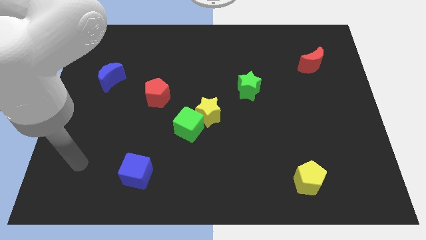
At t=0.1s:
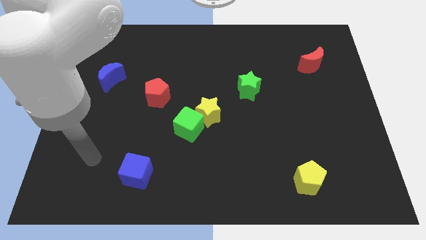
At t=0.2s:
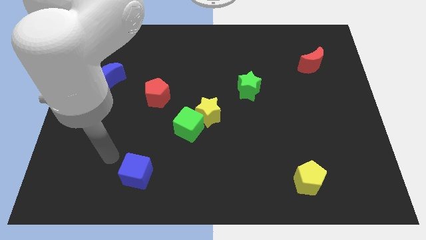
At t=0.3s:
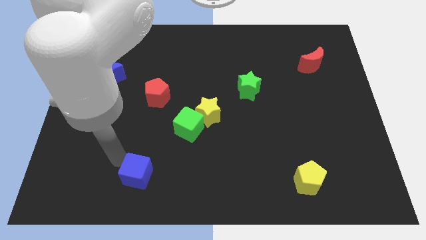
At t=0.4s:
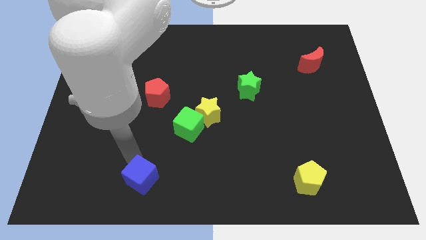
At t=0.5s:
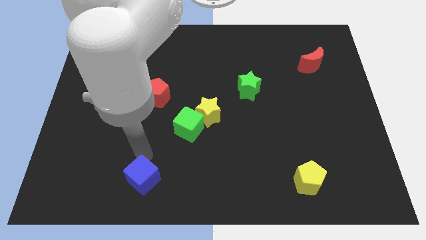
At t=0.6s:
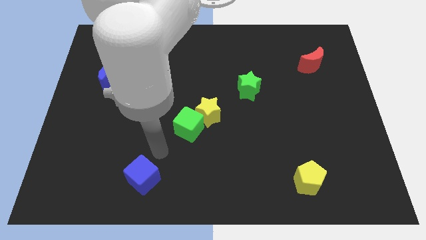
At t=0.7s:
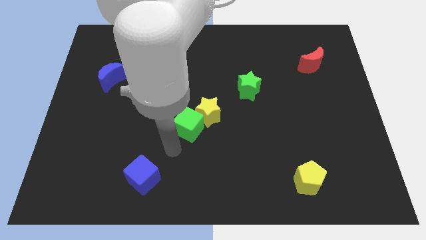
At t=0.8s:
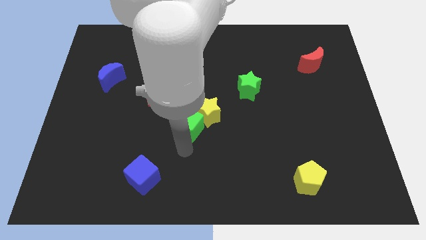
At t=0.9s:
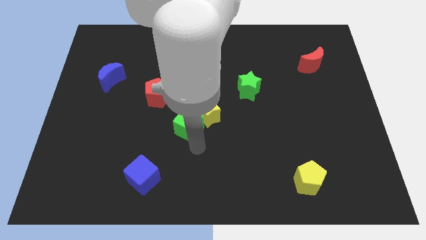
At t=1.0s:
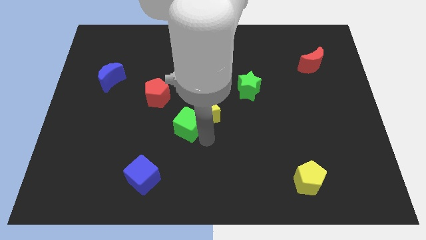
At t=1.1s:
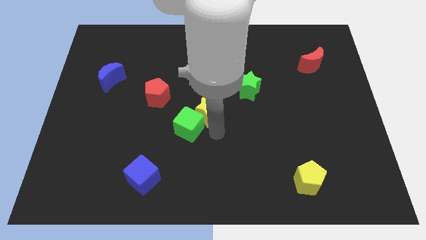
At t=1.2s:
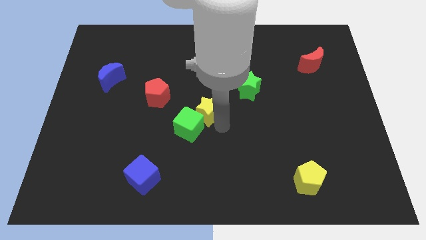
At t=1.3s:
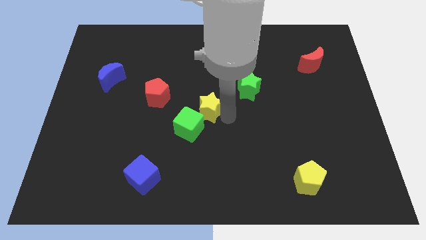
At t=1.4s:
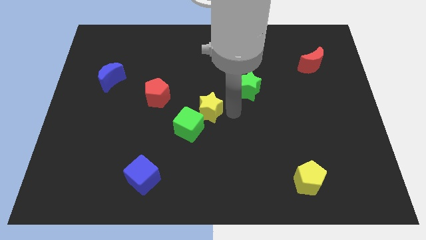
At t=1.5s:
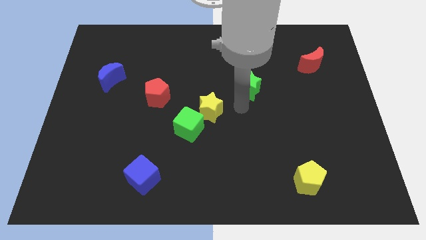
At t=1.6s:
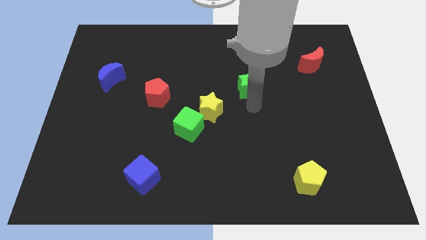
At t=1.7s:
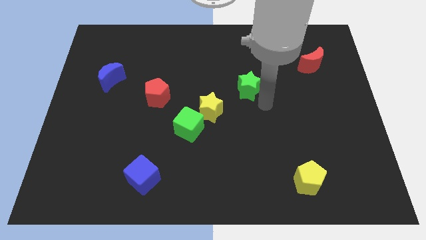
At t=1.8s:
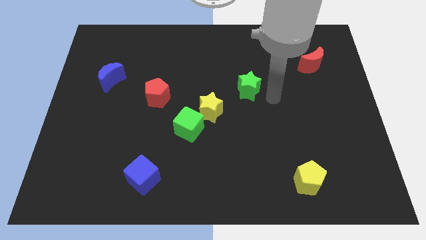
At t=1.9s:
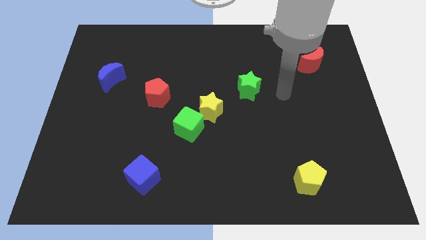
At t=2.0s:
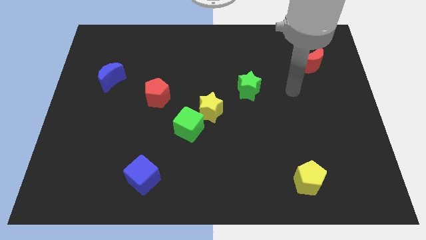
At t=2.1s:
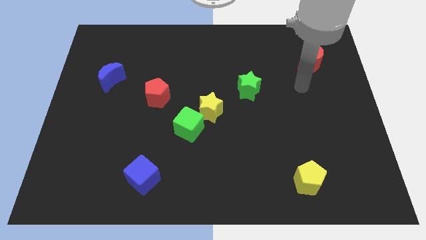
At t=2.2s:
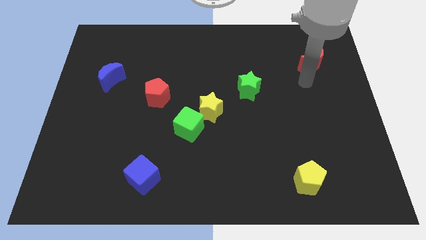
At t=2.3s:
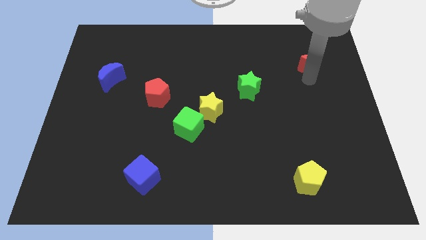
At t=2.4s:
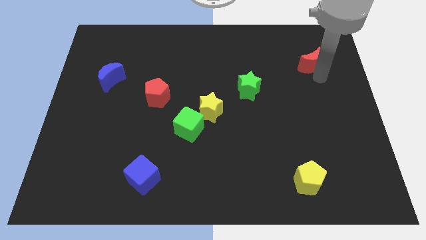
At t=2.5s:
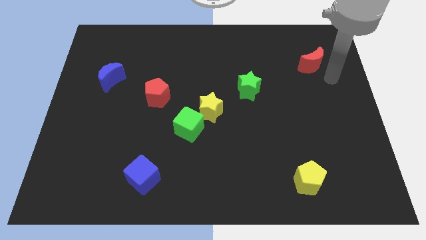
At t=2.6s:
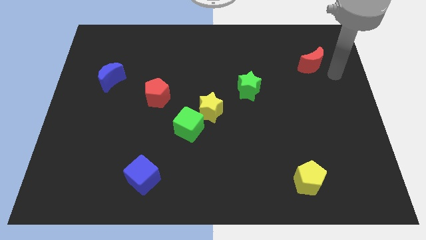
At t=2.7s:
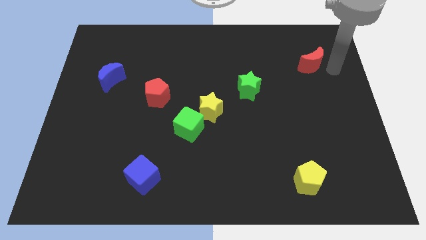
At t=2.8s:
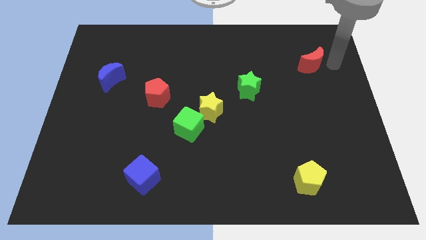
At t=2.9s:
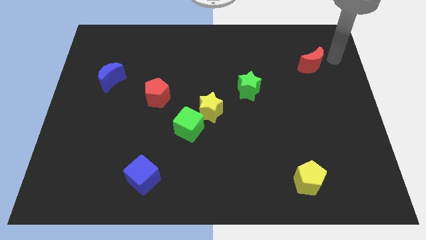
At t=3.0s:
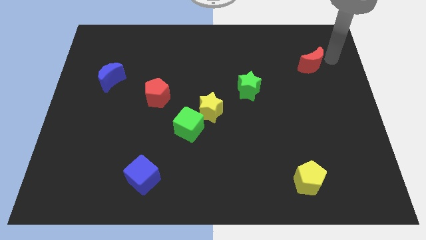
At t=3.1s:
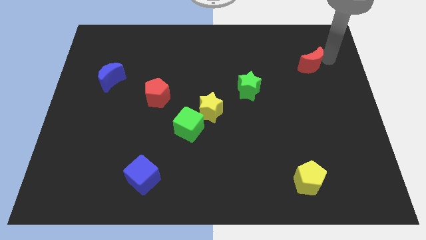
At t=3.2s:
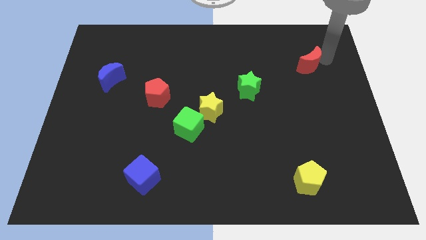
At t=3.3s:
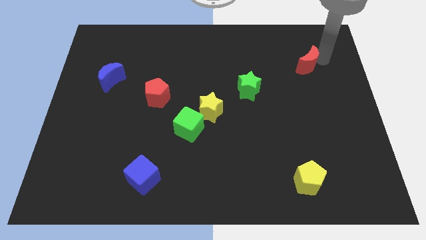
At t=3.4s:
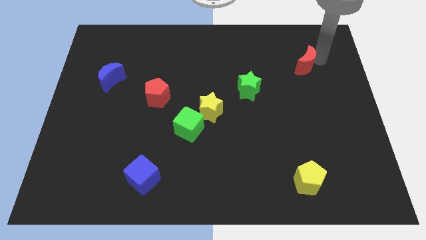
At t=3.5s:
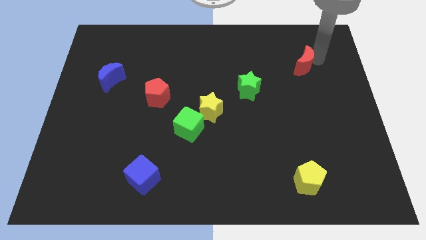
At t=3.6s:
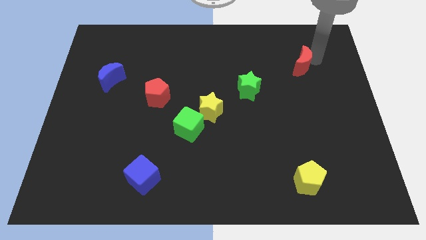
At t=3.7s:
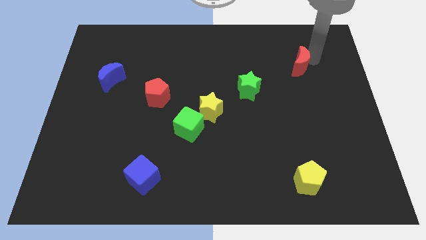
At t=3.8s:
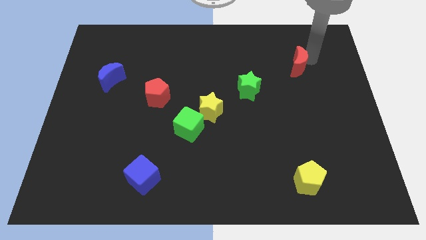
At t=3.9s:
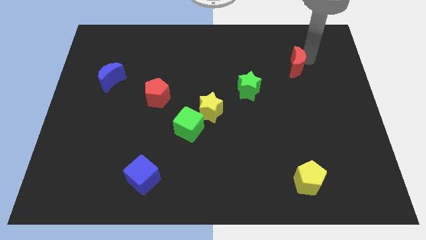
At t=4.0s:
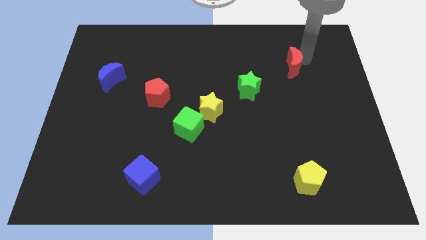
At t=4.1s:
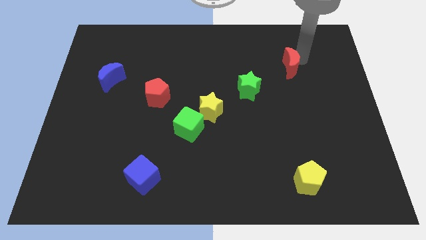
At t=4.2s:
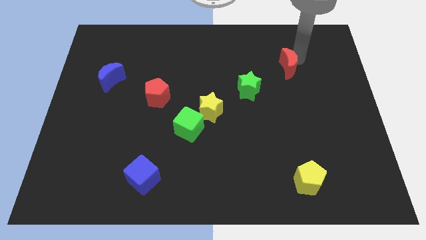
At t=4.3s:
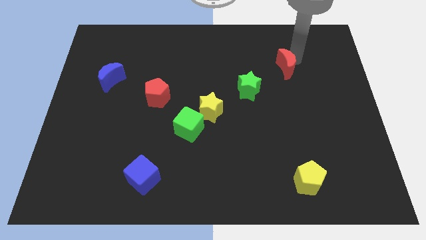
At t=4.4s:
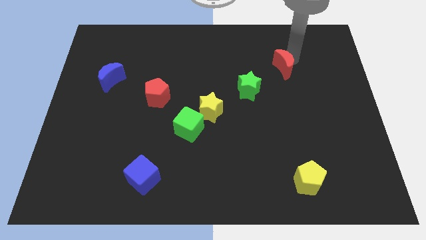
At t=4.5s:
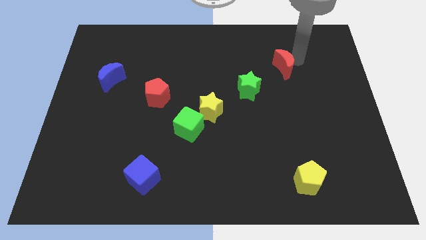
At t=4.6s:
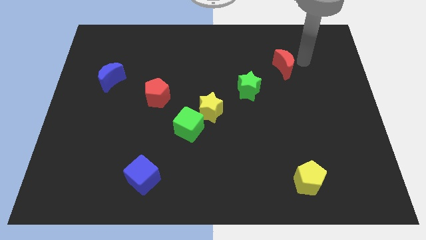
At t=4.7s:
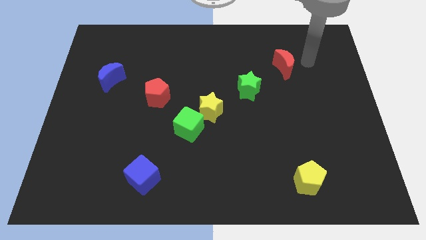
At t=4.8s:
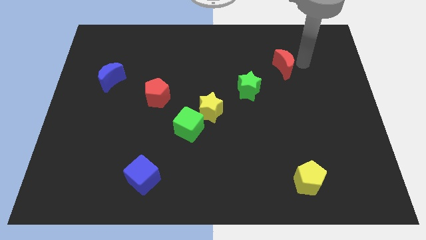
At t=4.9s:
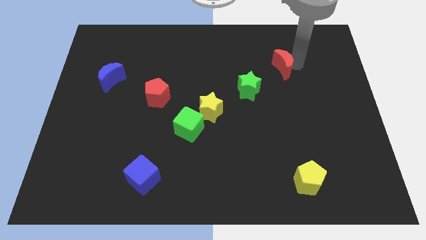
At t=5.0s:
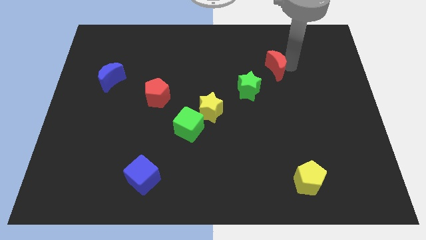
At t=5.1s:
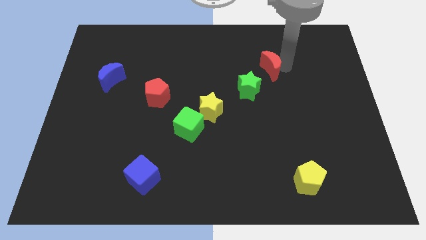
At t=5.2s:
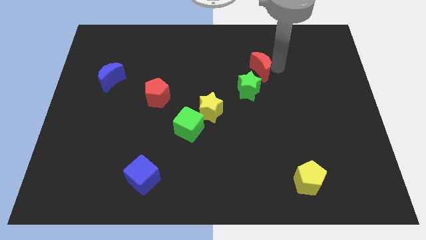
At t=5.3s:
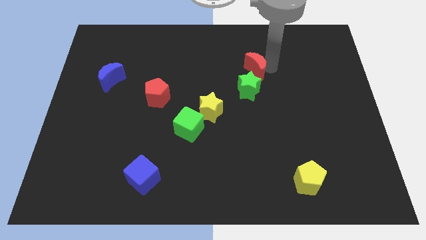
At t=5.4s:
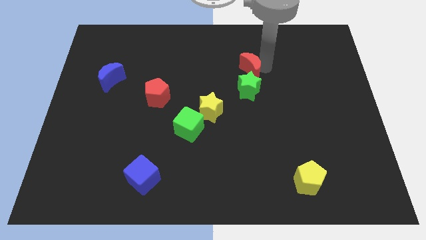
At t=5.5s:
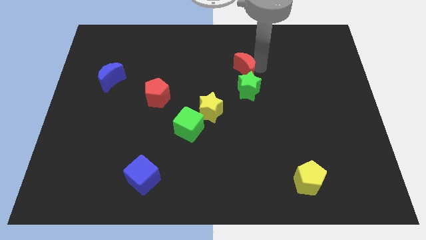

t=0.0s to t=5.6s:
move the red moon diagonally up and to the left of the green star
